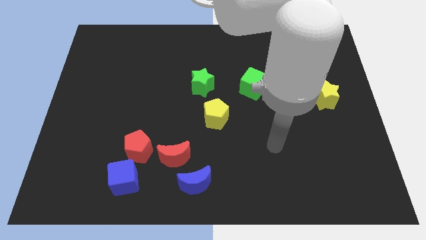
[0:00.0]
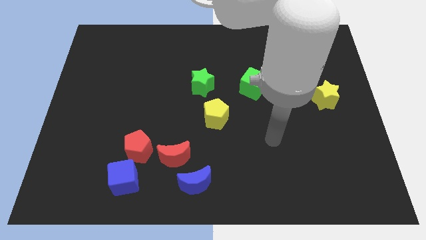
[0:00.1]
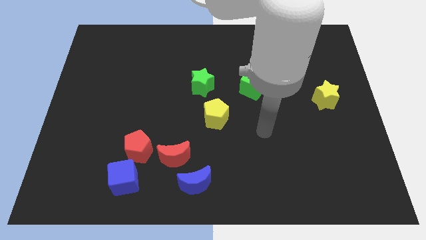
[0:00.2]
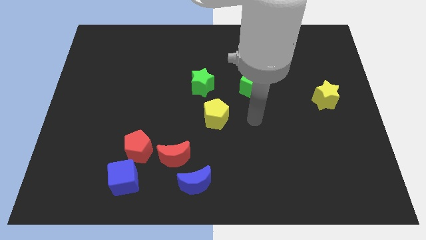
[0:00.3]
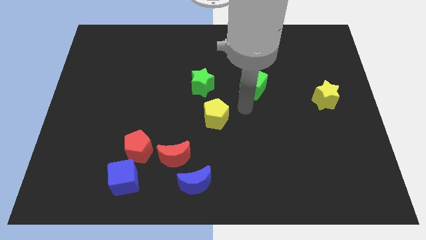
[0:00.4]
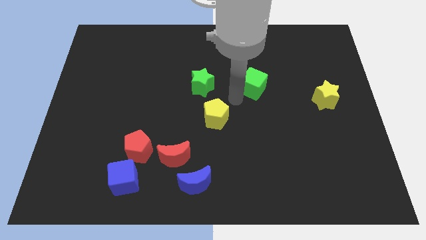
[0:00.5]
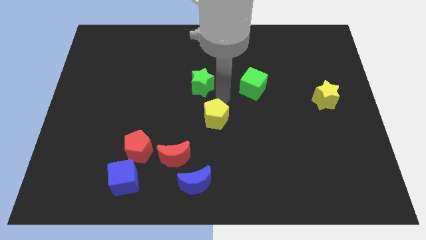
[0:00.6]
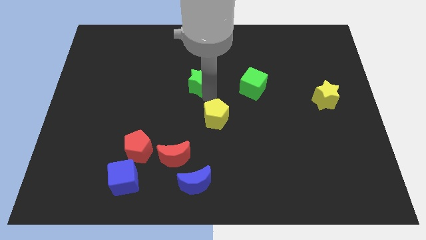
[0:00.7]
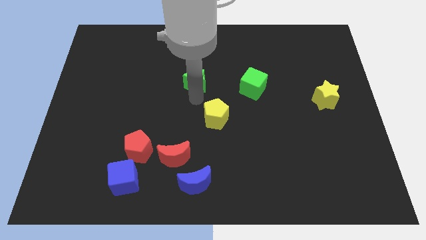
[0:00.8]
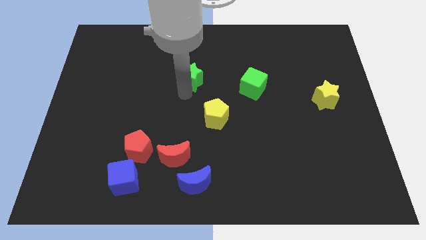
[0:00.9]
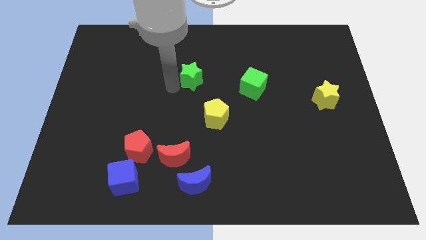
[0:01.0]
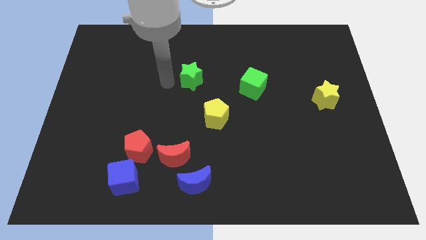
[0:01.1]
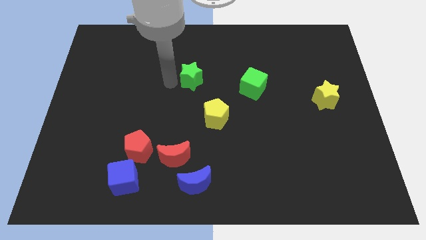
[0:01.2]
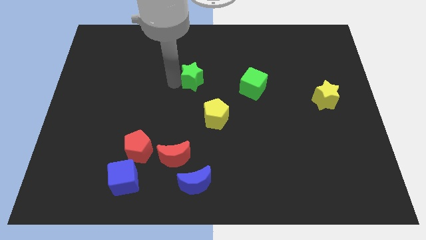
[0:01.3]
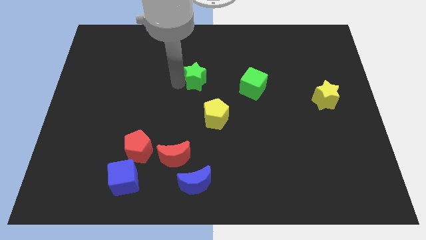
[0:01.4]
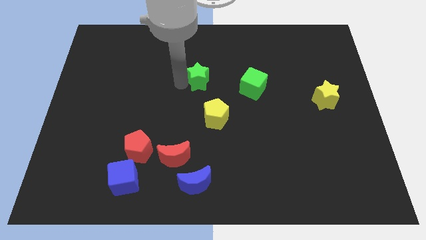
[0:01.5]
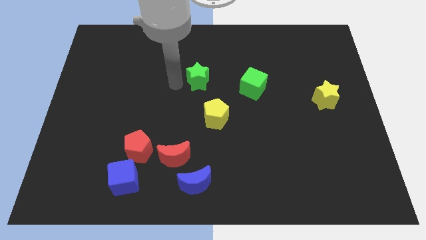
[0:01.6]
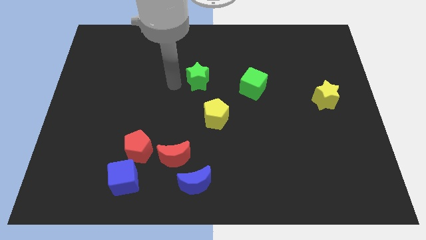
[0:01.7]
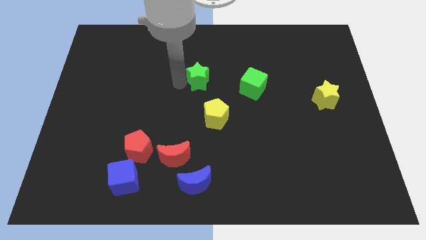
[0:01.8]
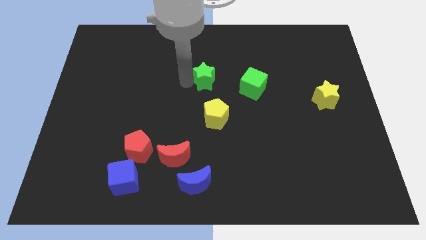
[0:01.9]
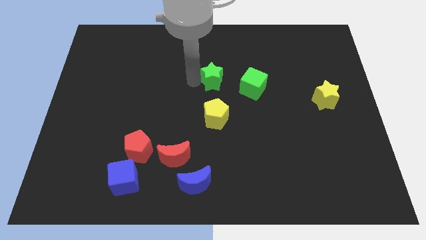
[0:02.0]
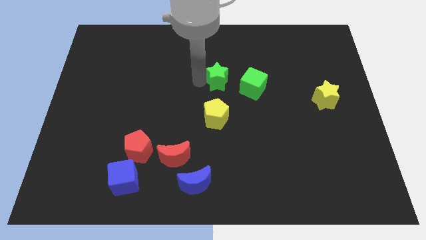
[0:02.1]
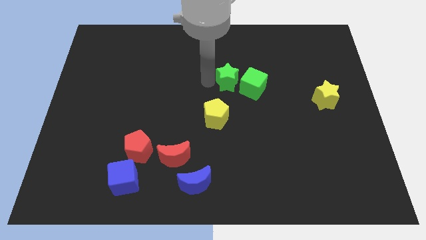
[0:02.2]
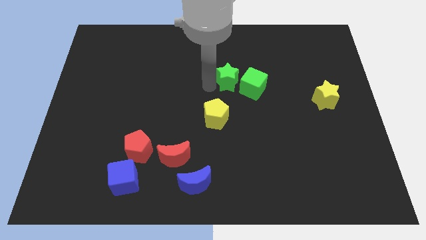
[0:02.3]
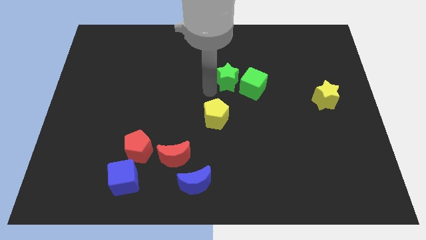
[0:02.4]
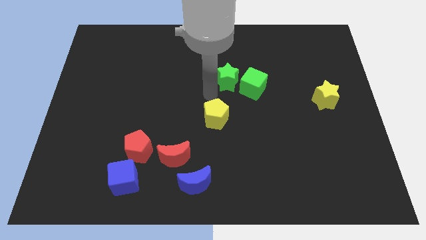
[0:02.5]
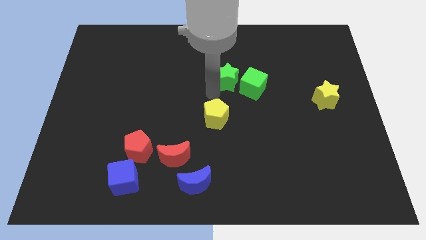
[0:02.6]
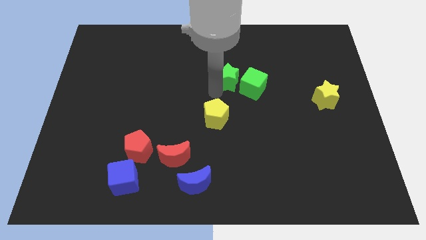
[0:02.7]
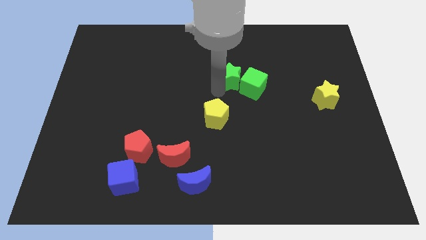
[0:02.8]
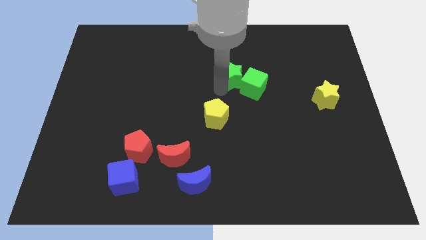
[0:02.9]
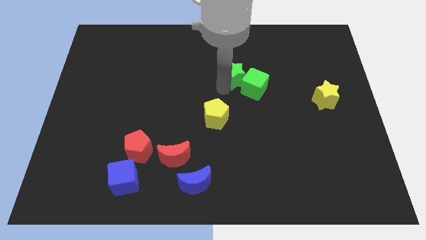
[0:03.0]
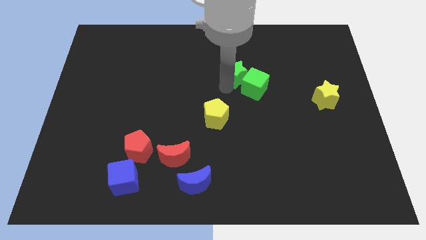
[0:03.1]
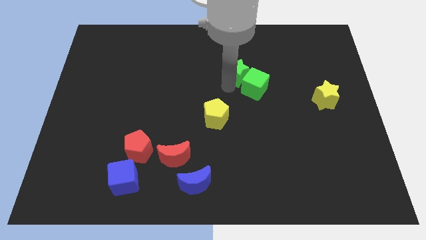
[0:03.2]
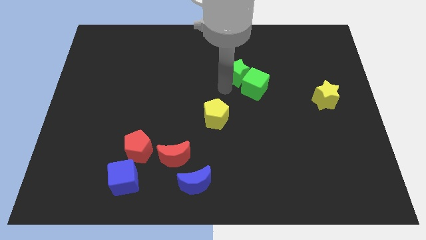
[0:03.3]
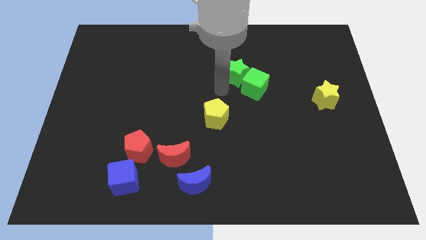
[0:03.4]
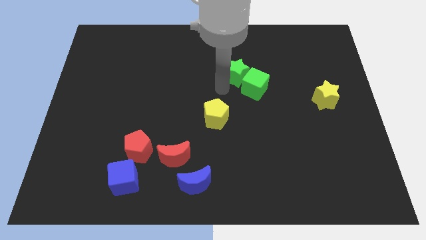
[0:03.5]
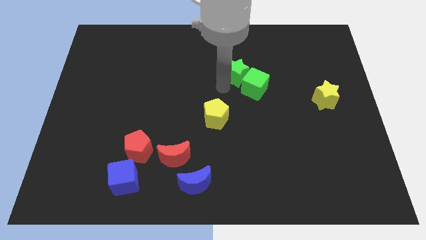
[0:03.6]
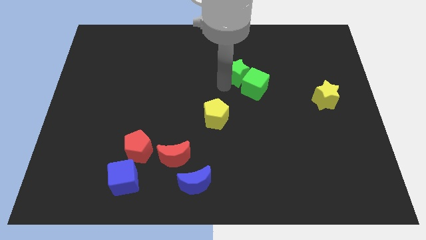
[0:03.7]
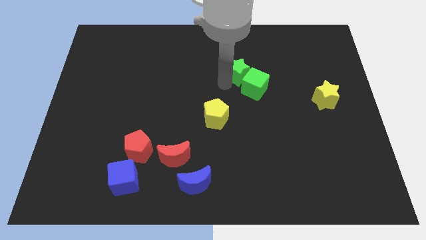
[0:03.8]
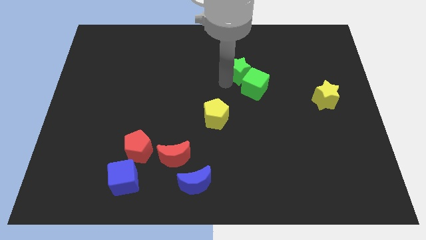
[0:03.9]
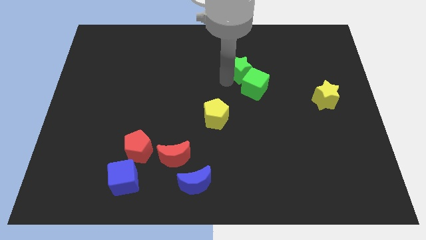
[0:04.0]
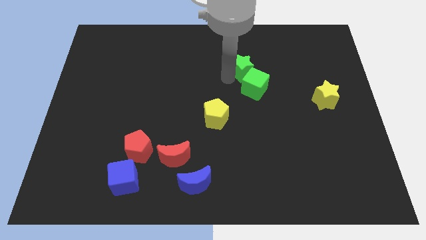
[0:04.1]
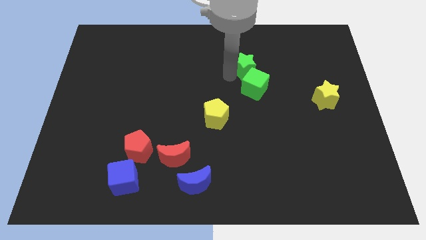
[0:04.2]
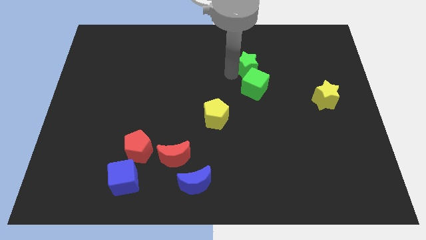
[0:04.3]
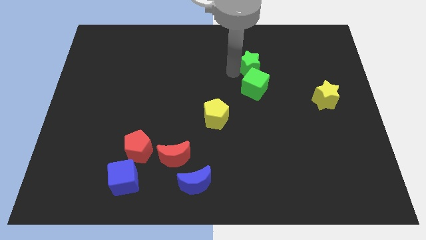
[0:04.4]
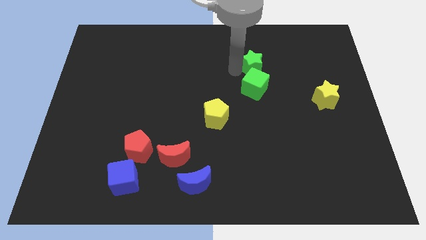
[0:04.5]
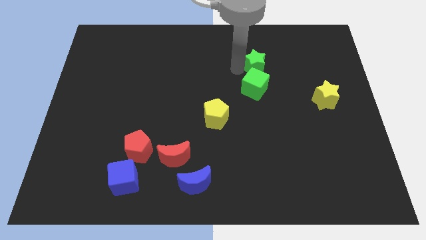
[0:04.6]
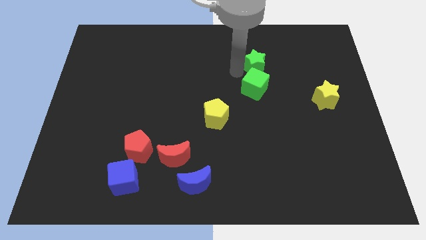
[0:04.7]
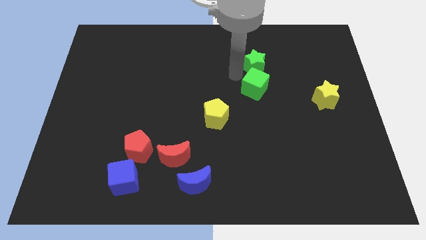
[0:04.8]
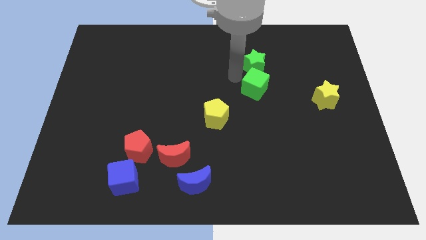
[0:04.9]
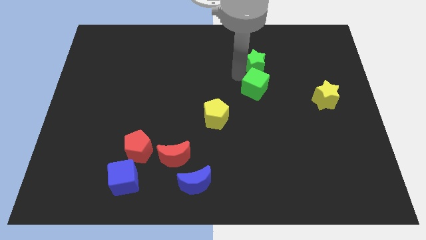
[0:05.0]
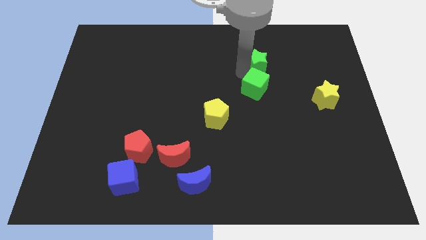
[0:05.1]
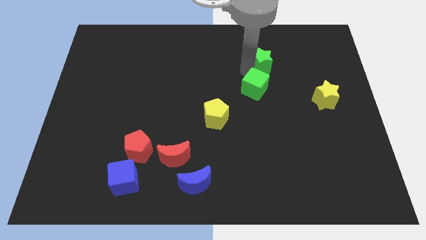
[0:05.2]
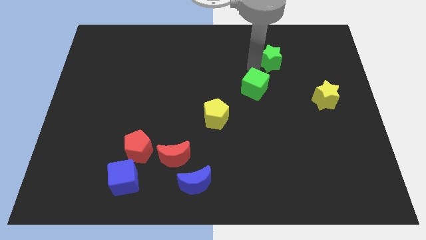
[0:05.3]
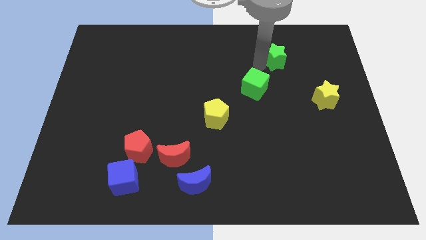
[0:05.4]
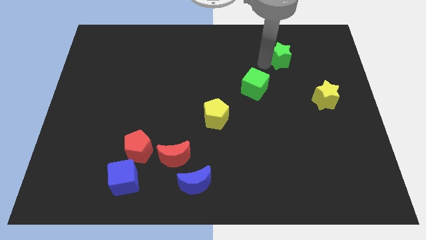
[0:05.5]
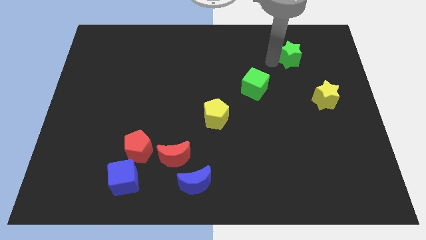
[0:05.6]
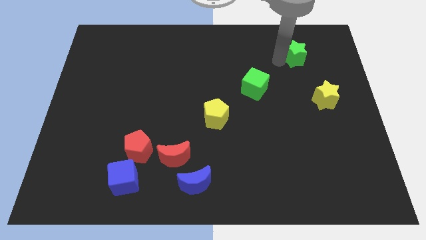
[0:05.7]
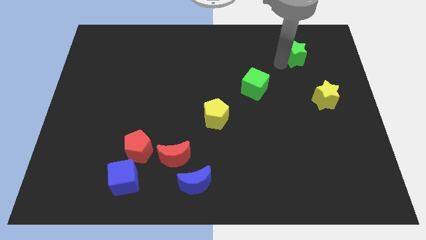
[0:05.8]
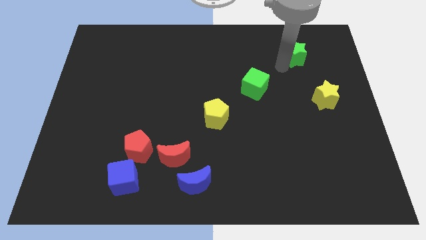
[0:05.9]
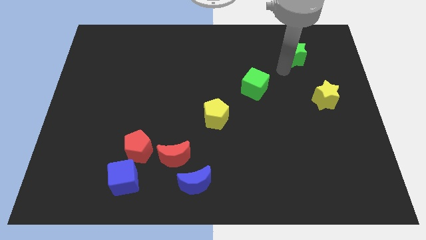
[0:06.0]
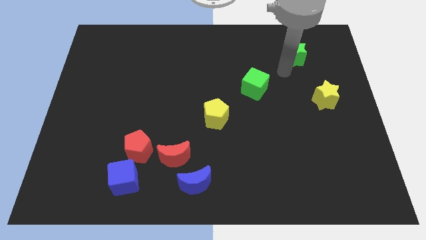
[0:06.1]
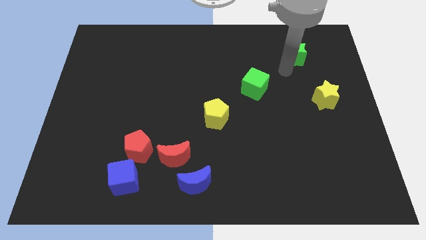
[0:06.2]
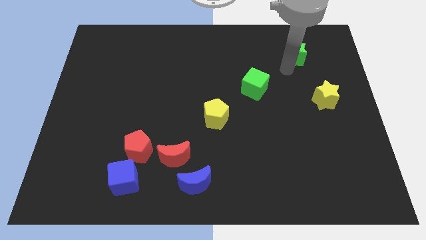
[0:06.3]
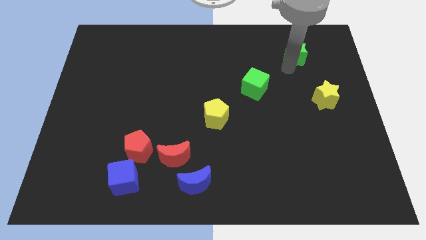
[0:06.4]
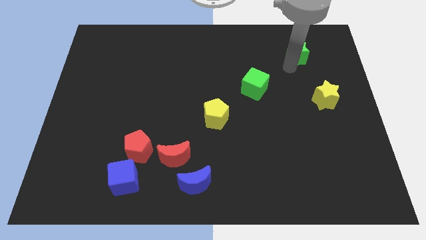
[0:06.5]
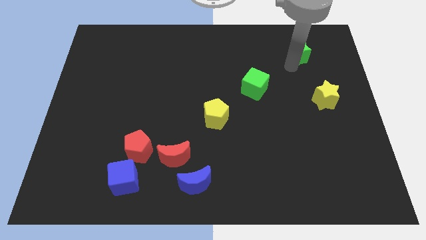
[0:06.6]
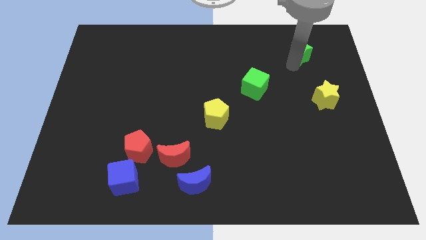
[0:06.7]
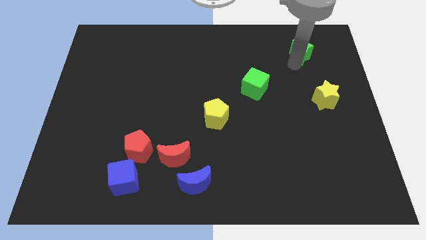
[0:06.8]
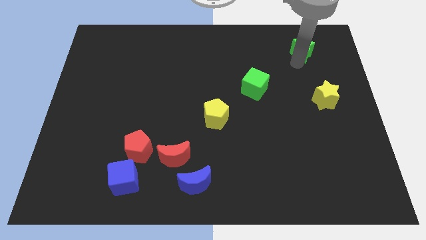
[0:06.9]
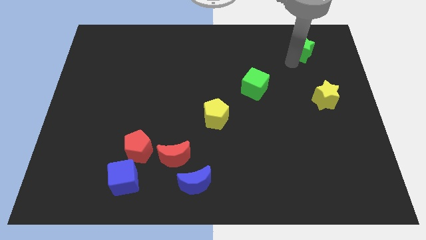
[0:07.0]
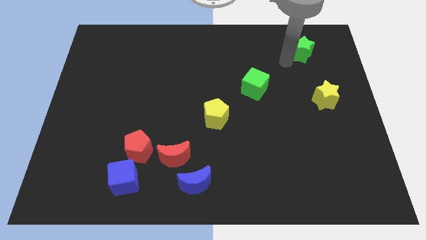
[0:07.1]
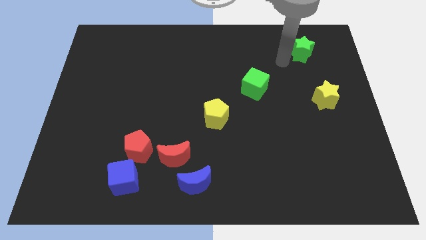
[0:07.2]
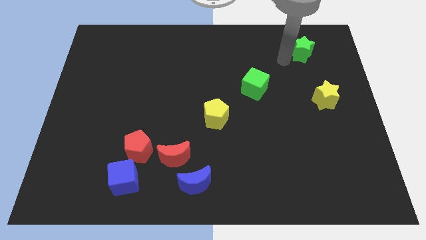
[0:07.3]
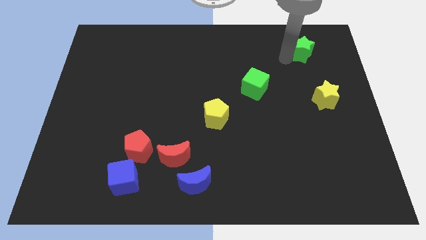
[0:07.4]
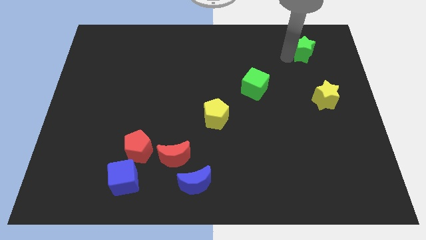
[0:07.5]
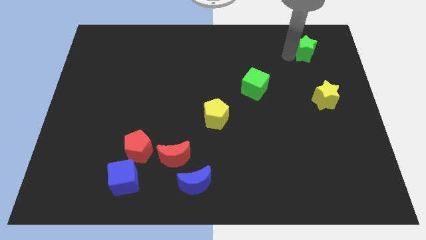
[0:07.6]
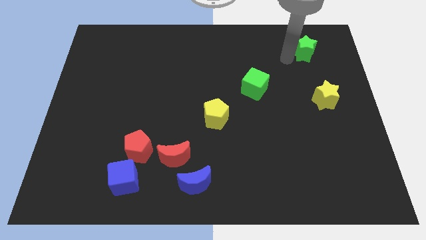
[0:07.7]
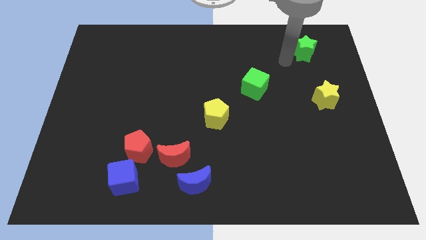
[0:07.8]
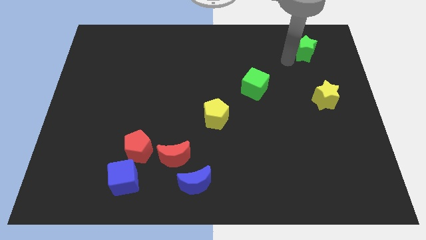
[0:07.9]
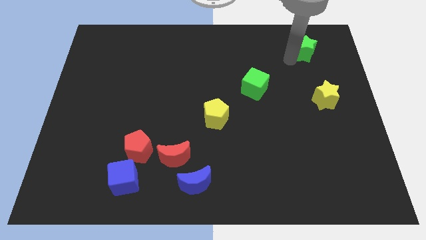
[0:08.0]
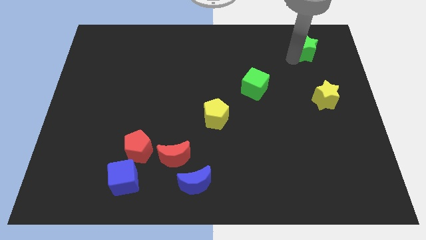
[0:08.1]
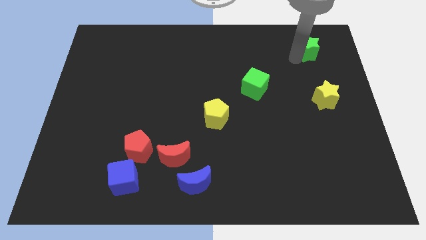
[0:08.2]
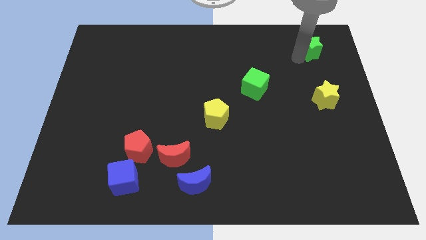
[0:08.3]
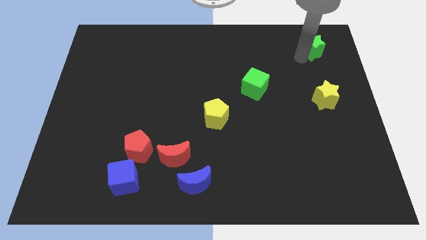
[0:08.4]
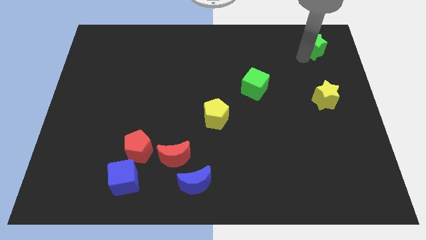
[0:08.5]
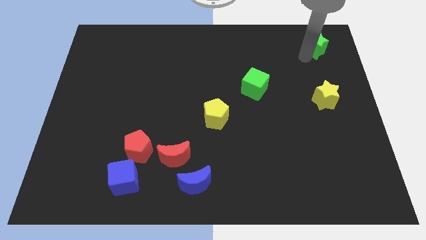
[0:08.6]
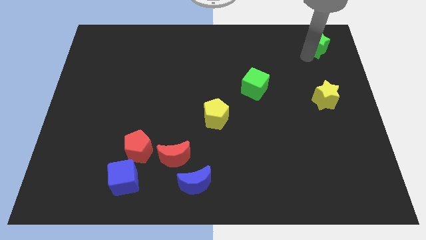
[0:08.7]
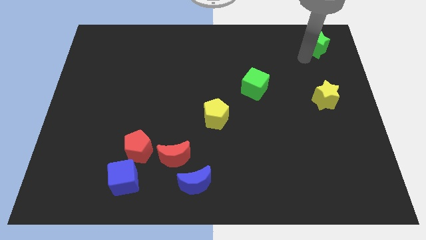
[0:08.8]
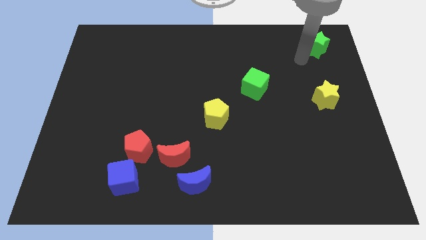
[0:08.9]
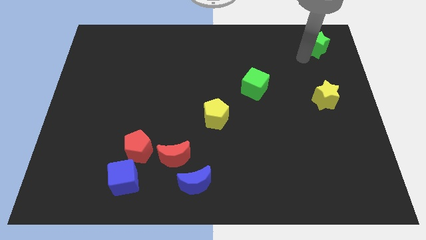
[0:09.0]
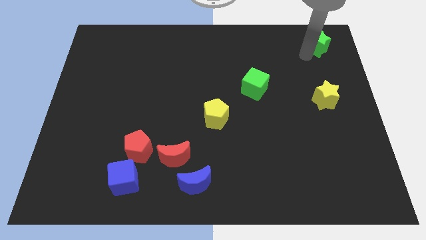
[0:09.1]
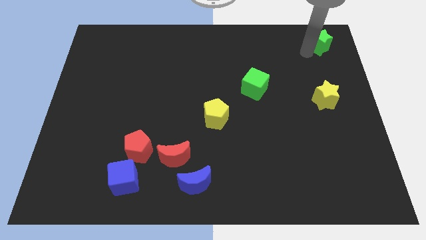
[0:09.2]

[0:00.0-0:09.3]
slide the green star to the upper right corner
